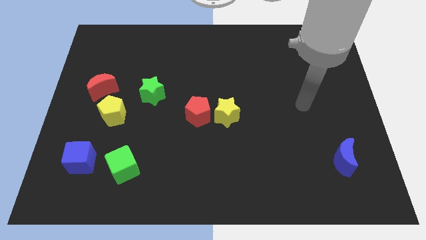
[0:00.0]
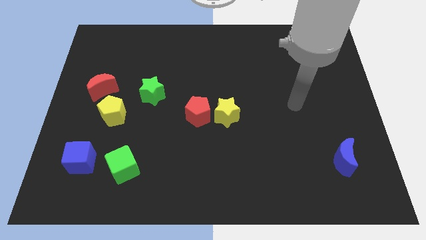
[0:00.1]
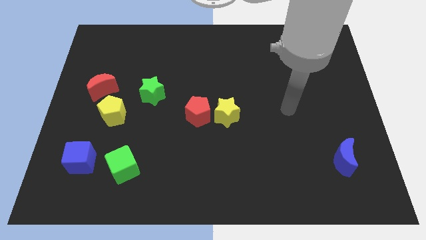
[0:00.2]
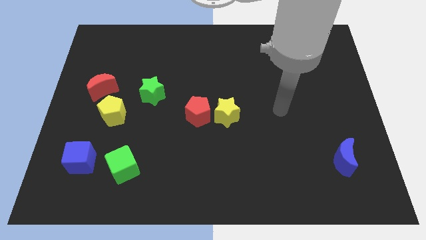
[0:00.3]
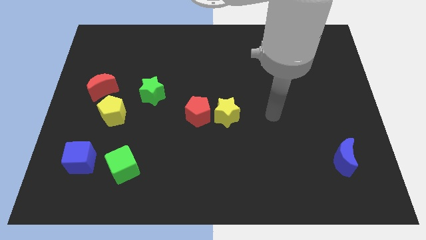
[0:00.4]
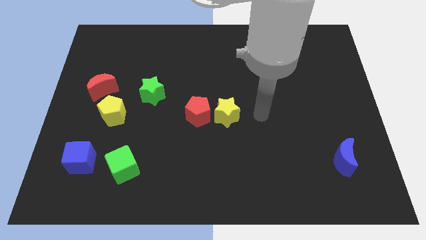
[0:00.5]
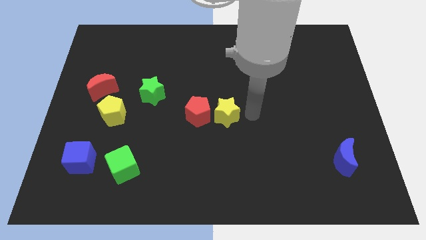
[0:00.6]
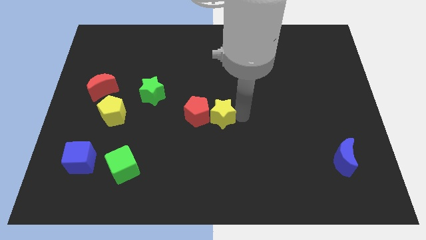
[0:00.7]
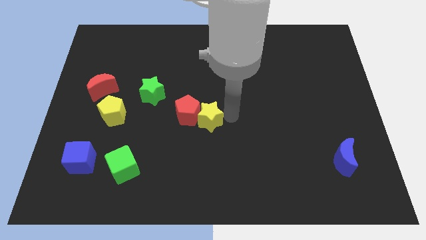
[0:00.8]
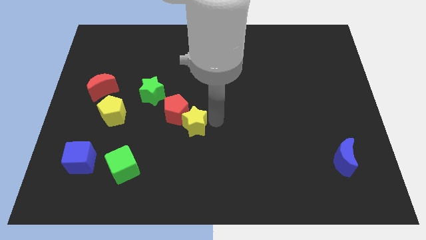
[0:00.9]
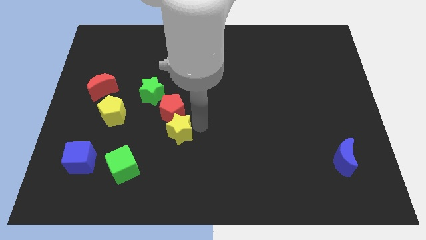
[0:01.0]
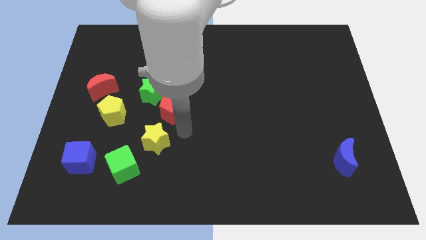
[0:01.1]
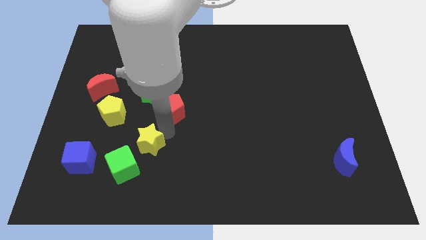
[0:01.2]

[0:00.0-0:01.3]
separate the red pentagon from the yellow star

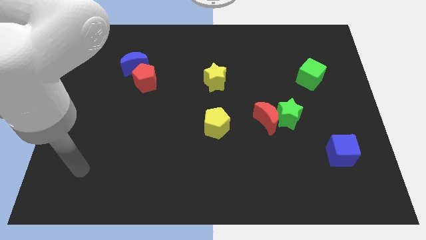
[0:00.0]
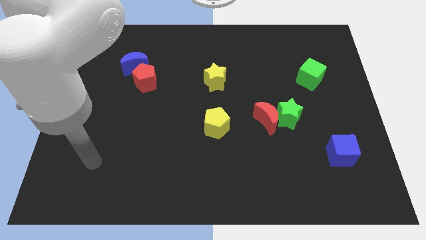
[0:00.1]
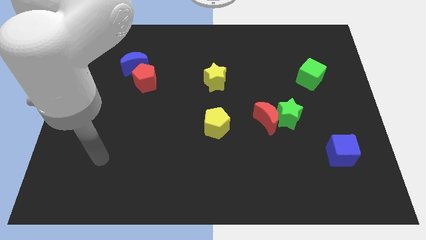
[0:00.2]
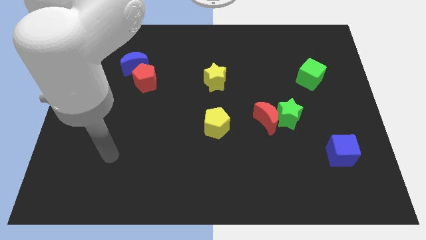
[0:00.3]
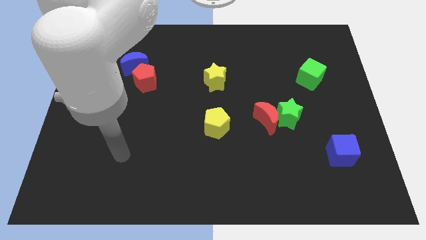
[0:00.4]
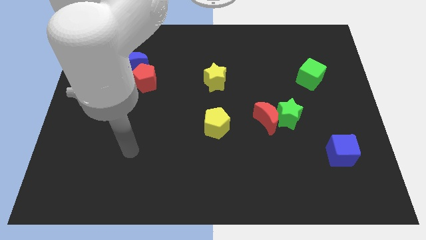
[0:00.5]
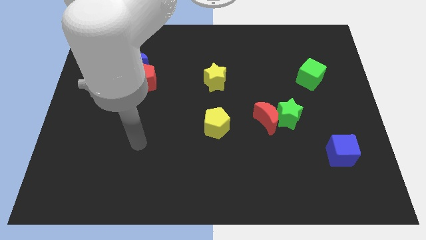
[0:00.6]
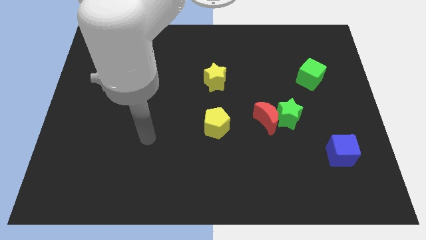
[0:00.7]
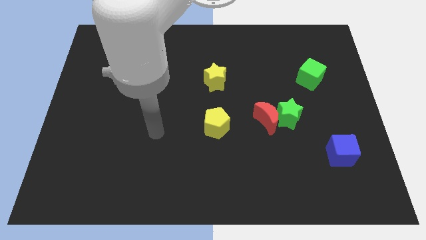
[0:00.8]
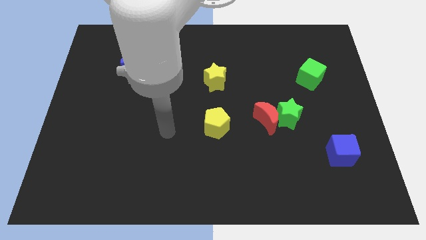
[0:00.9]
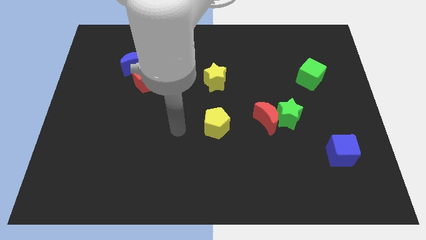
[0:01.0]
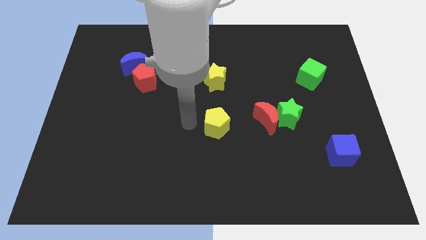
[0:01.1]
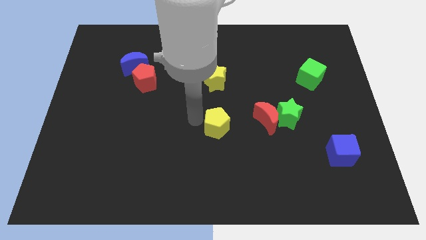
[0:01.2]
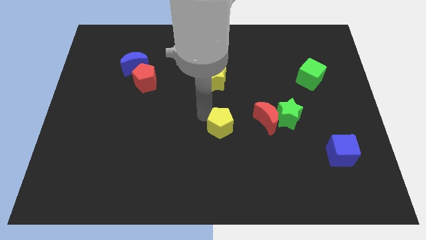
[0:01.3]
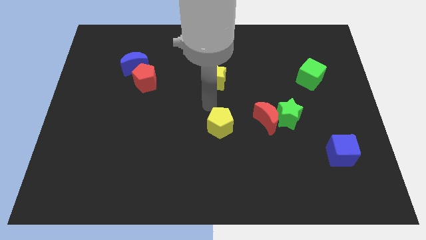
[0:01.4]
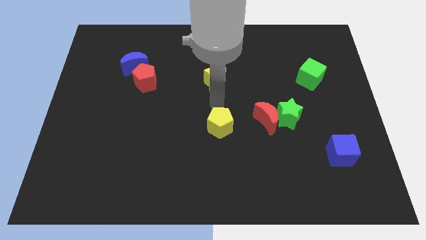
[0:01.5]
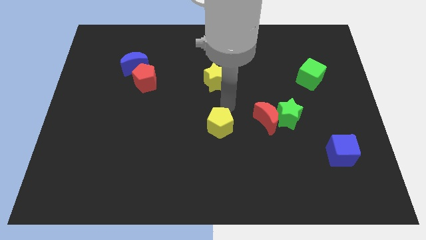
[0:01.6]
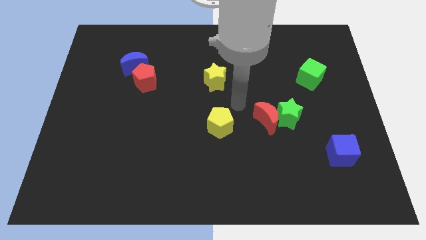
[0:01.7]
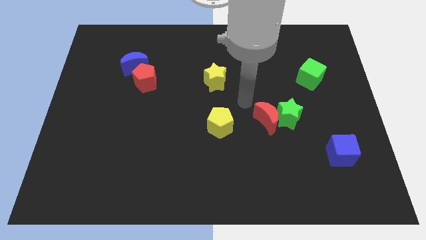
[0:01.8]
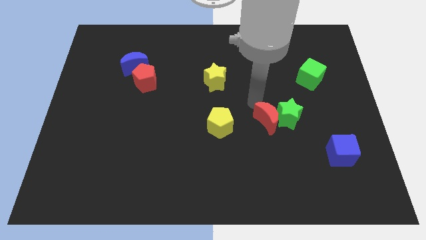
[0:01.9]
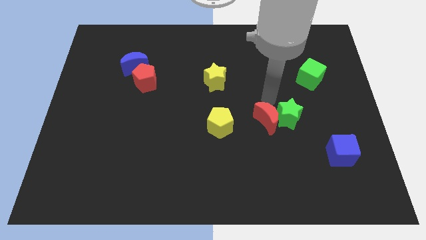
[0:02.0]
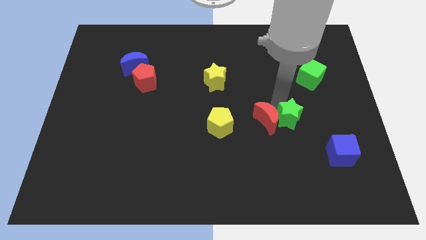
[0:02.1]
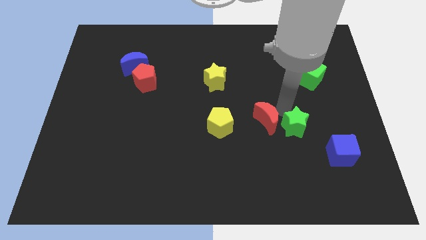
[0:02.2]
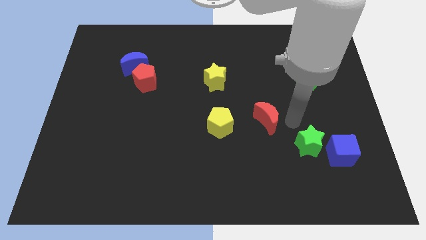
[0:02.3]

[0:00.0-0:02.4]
pull the red moon apart from the green star

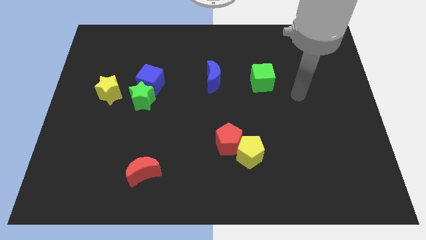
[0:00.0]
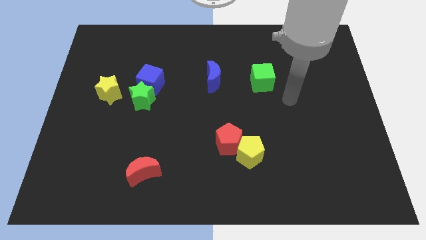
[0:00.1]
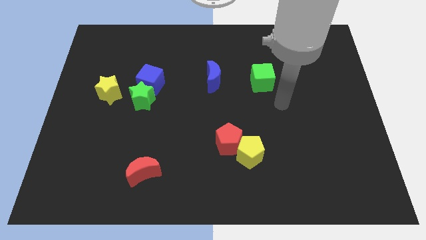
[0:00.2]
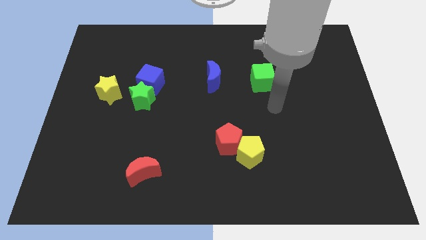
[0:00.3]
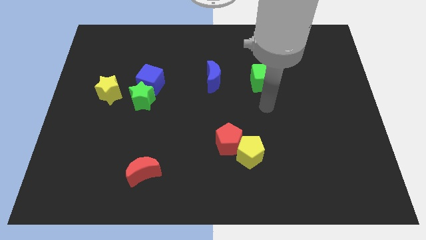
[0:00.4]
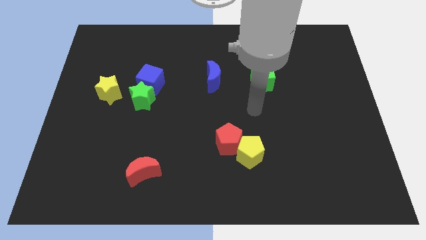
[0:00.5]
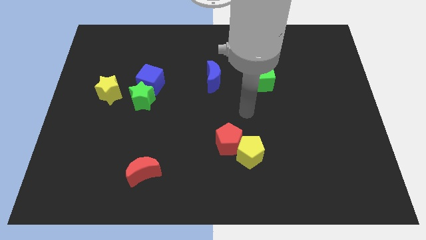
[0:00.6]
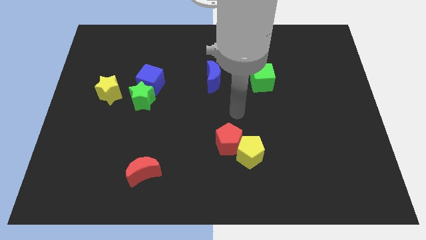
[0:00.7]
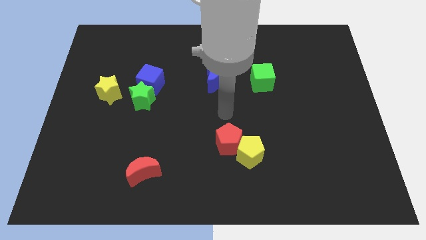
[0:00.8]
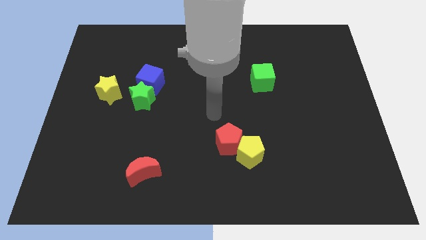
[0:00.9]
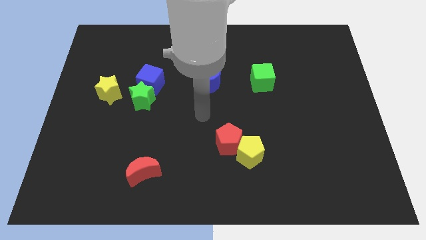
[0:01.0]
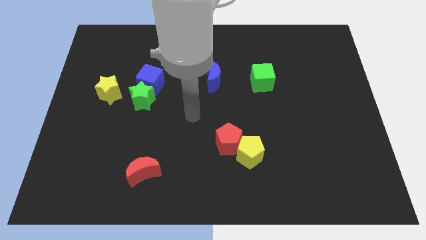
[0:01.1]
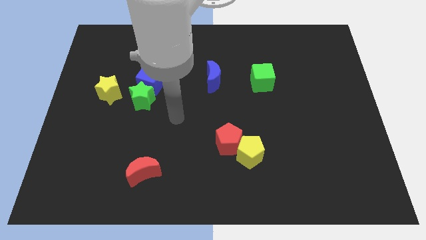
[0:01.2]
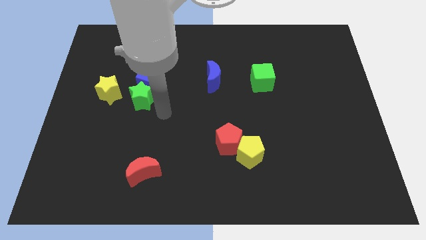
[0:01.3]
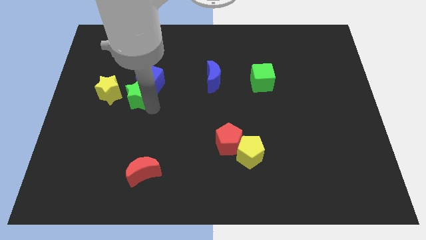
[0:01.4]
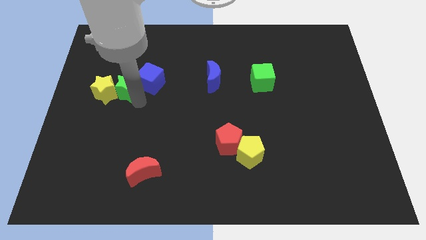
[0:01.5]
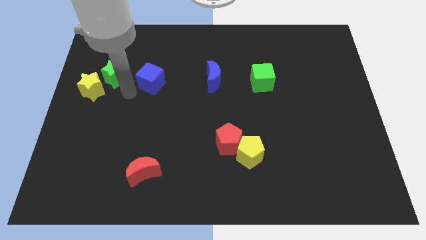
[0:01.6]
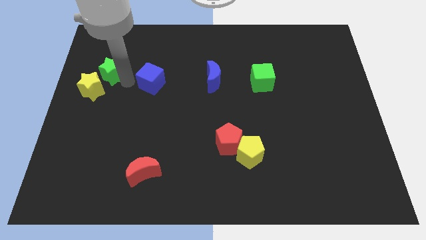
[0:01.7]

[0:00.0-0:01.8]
separate the blue cube from the green star

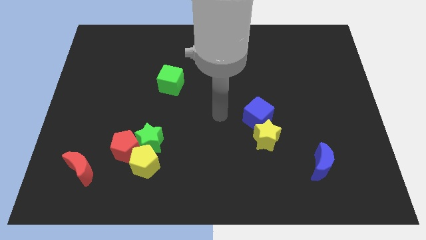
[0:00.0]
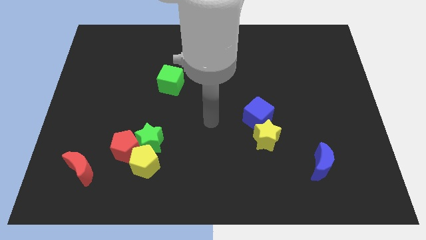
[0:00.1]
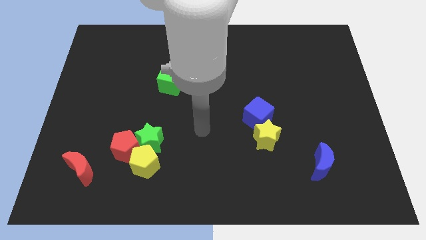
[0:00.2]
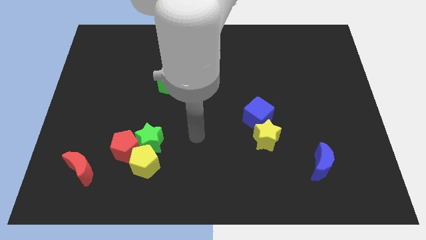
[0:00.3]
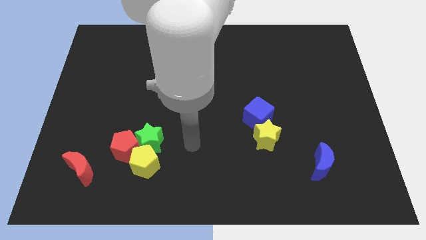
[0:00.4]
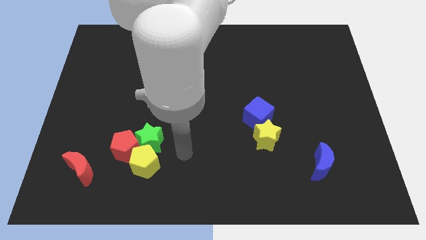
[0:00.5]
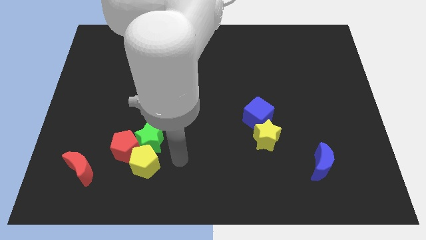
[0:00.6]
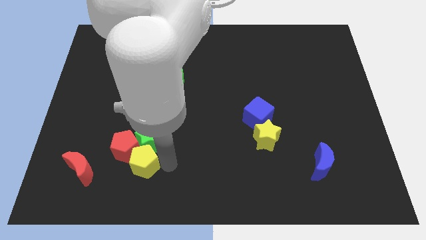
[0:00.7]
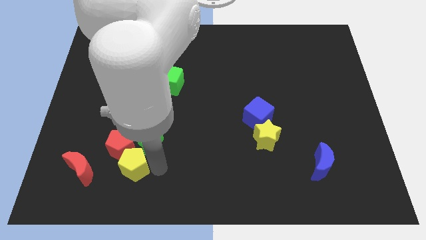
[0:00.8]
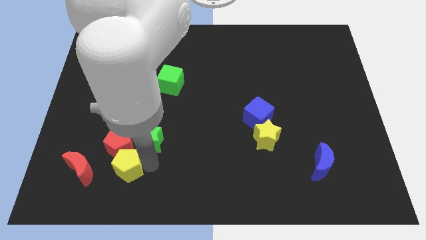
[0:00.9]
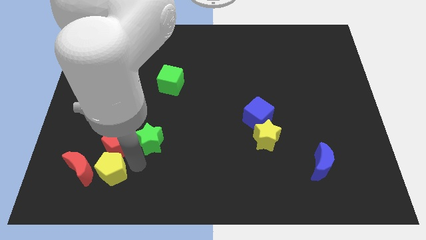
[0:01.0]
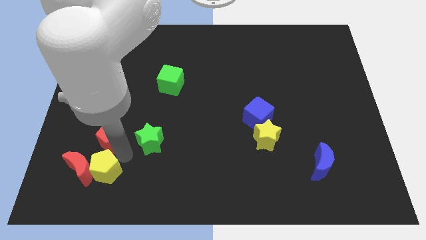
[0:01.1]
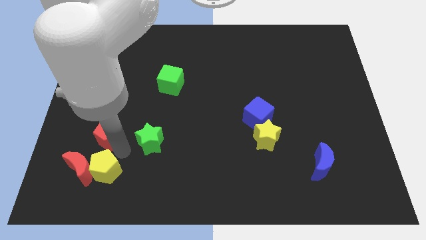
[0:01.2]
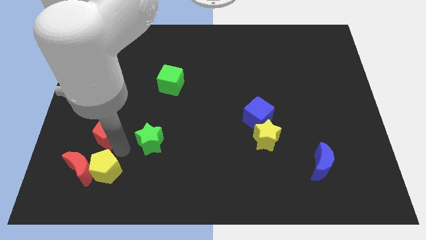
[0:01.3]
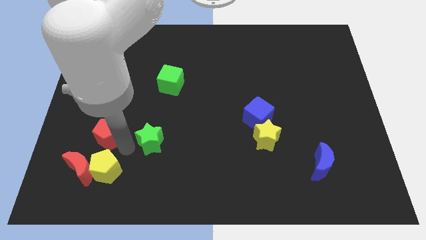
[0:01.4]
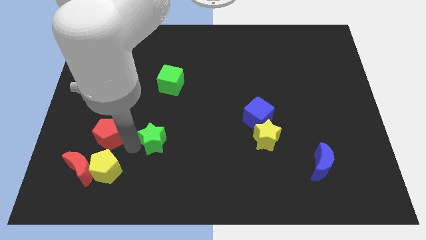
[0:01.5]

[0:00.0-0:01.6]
move the green star away from the red pentagon and yellow pentagon

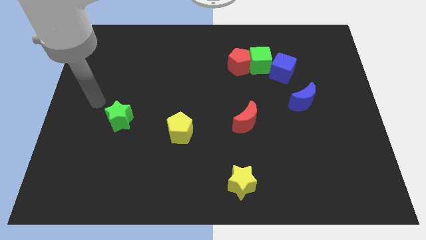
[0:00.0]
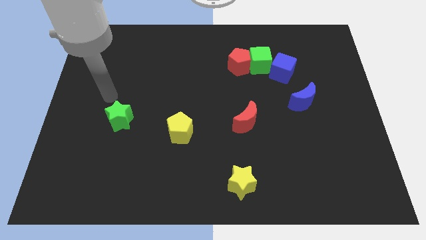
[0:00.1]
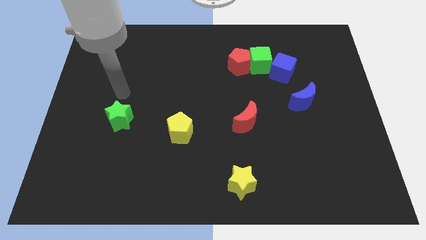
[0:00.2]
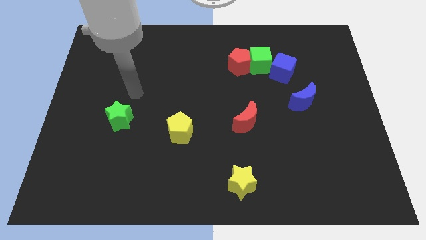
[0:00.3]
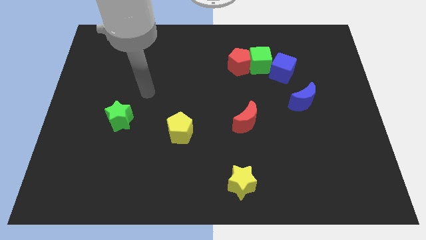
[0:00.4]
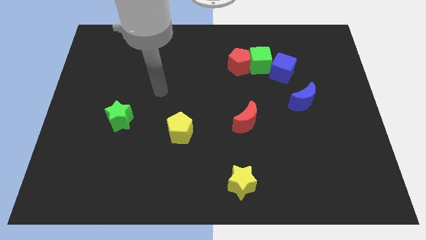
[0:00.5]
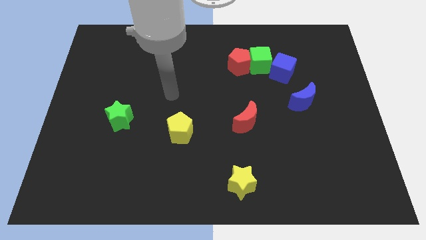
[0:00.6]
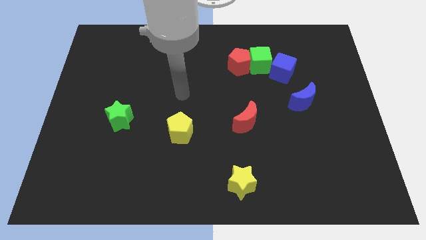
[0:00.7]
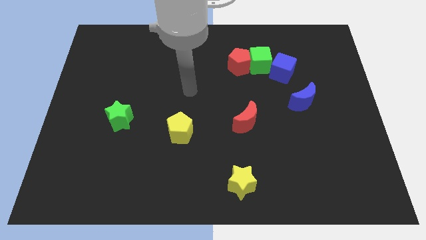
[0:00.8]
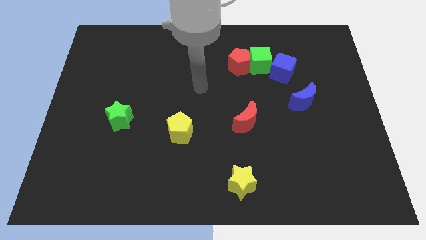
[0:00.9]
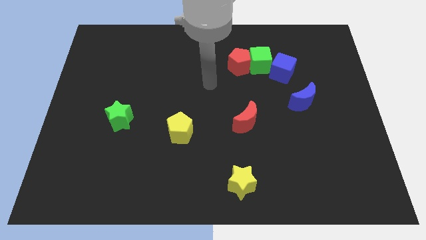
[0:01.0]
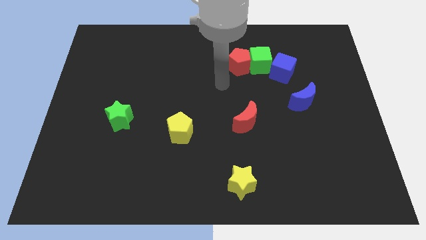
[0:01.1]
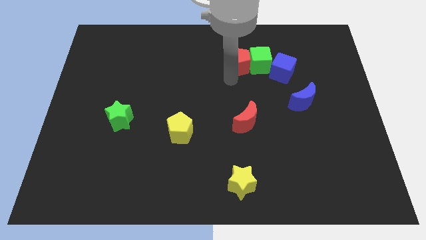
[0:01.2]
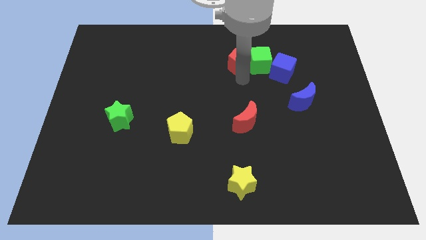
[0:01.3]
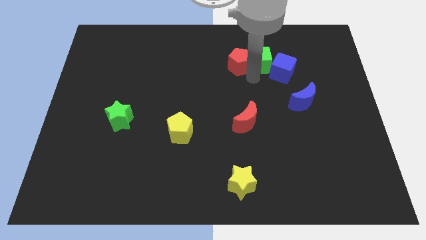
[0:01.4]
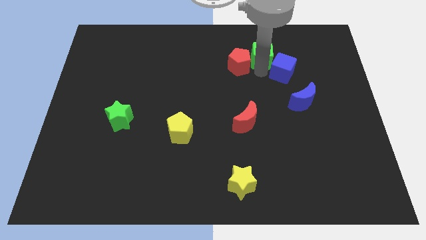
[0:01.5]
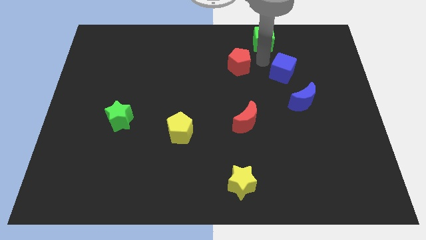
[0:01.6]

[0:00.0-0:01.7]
move the red pentagon away from the green cube

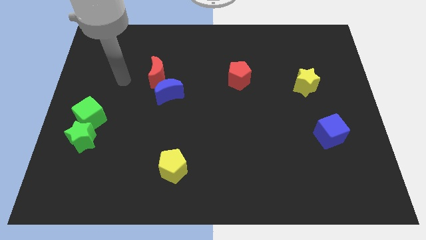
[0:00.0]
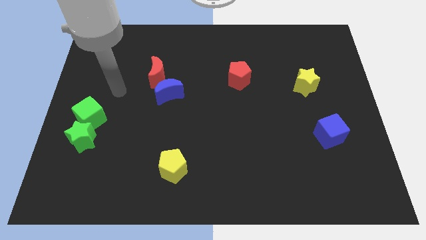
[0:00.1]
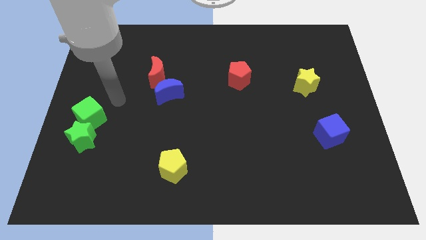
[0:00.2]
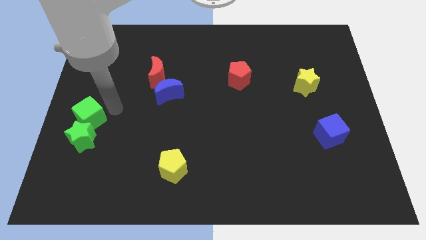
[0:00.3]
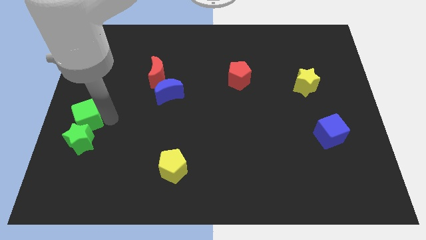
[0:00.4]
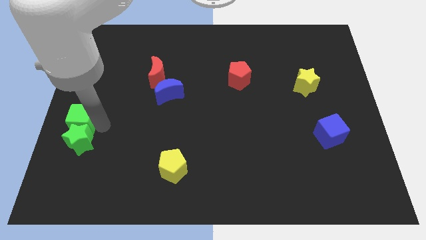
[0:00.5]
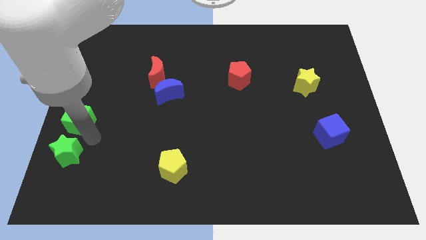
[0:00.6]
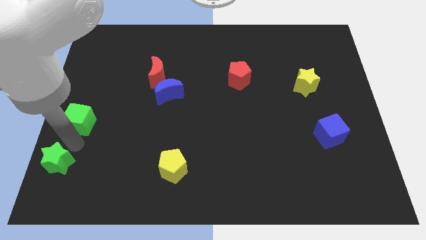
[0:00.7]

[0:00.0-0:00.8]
pull the green cube apart from the green star
